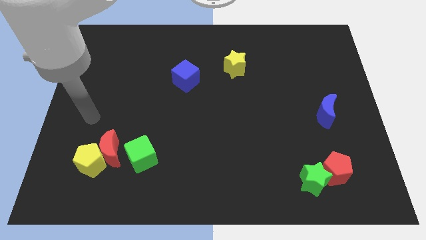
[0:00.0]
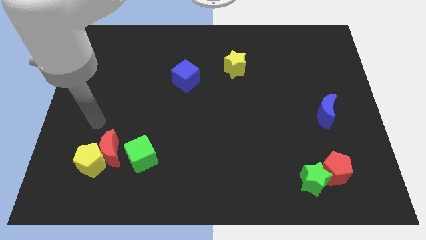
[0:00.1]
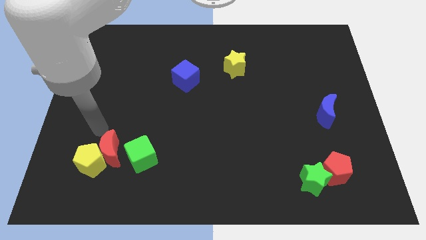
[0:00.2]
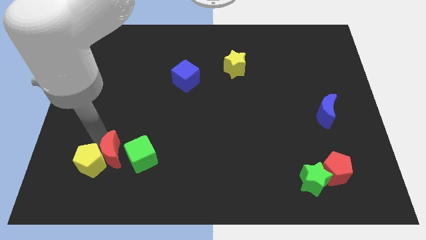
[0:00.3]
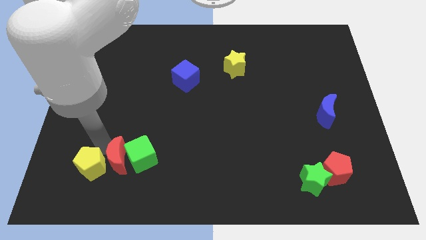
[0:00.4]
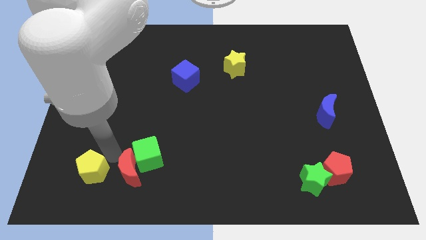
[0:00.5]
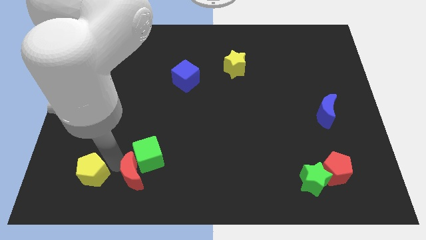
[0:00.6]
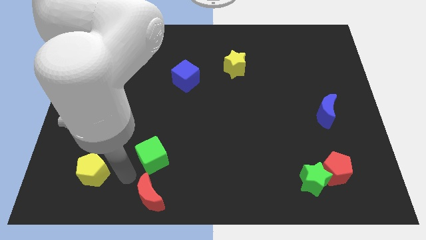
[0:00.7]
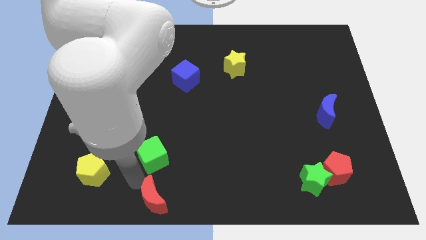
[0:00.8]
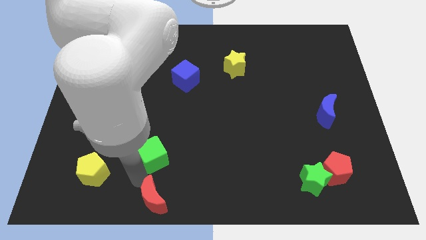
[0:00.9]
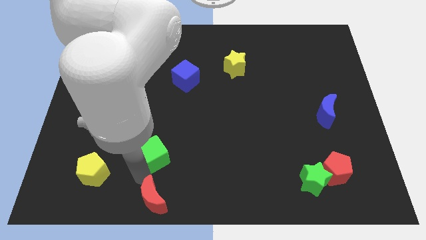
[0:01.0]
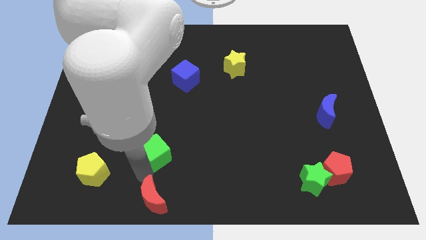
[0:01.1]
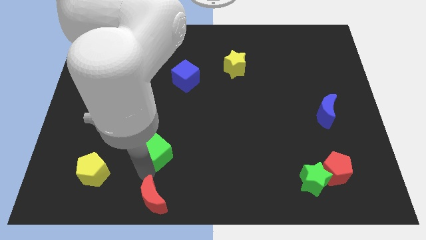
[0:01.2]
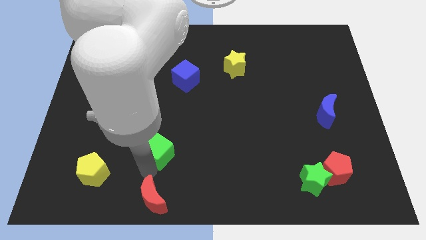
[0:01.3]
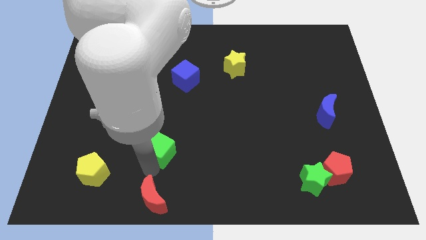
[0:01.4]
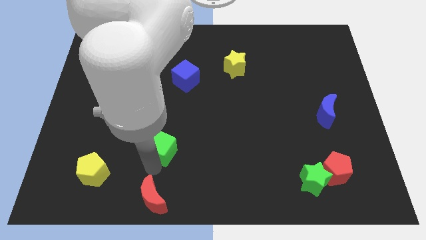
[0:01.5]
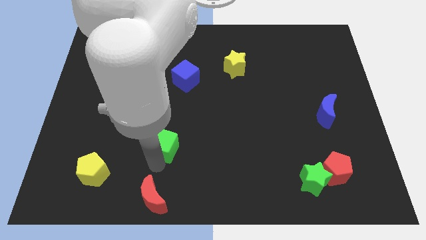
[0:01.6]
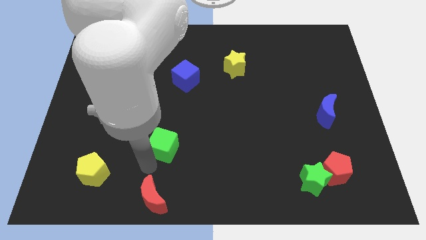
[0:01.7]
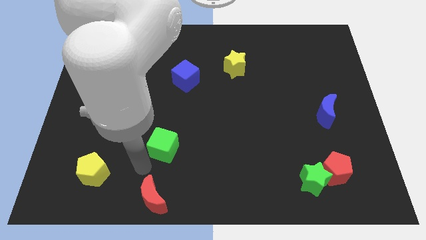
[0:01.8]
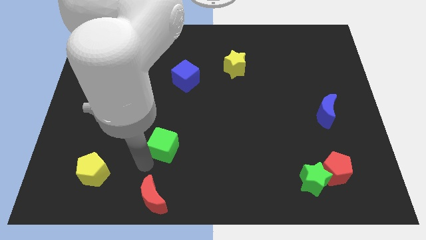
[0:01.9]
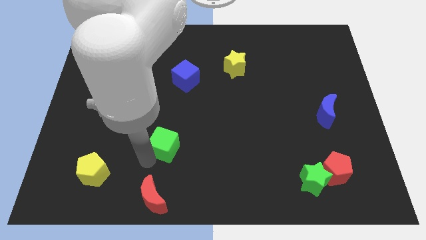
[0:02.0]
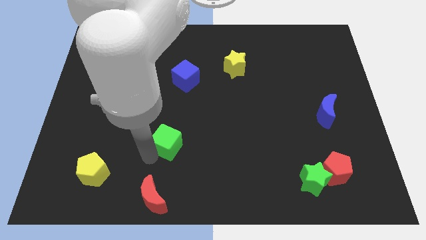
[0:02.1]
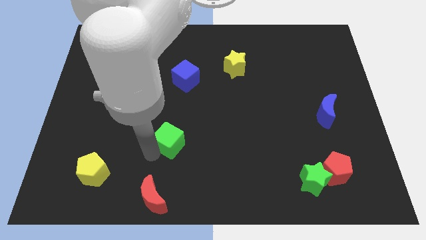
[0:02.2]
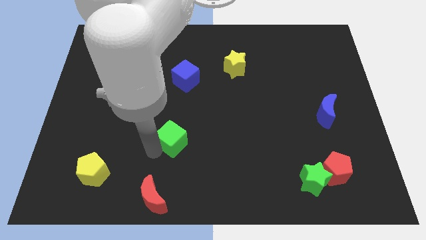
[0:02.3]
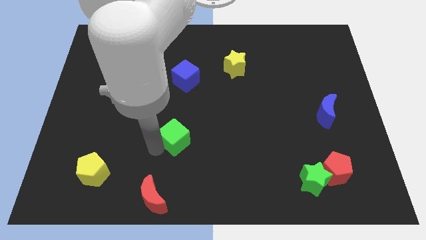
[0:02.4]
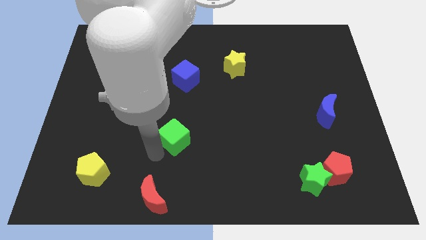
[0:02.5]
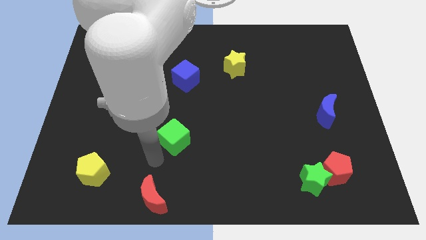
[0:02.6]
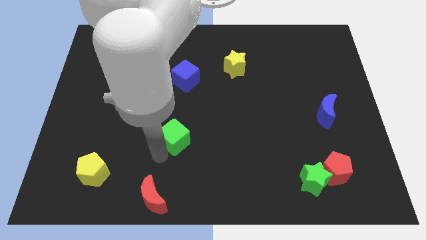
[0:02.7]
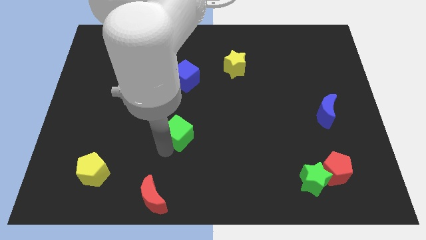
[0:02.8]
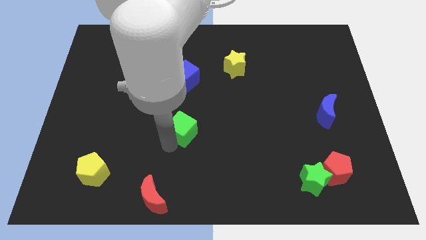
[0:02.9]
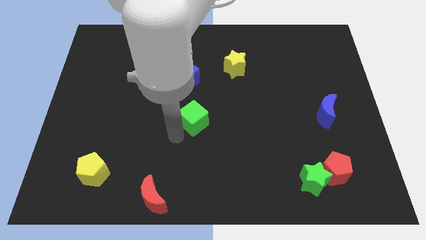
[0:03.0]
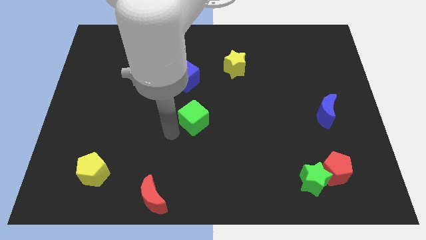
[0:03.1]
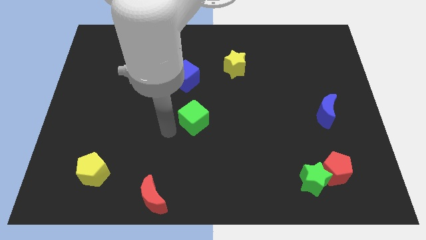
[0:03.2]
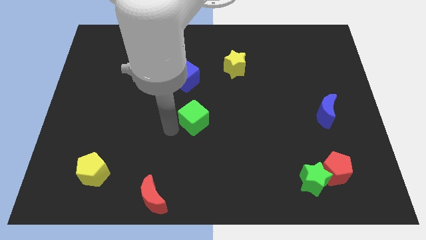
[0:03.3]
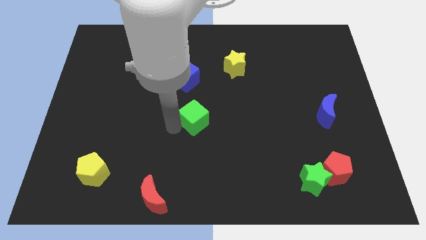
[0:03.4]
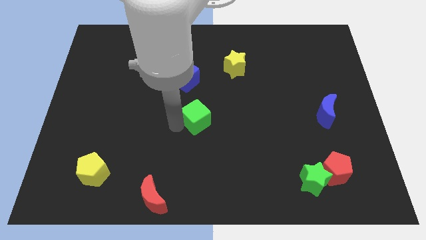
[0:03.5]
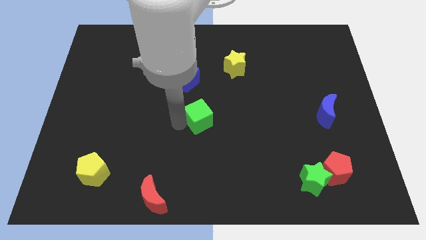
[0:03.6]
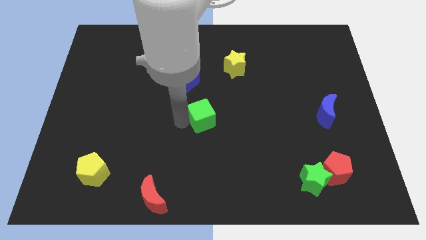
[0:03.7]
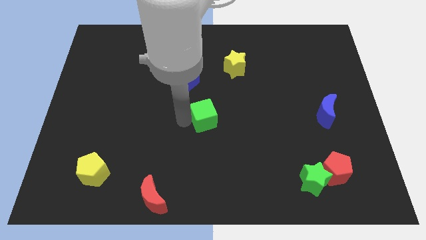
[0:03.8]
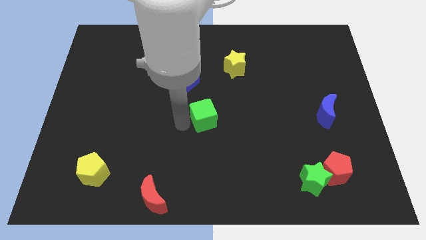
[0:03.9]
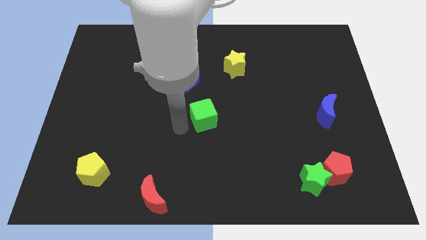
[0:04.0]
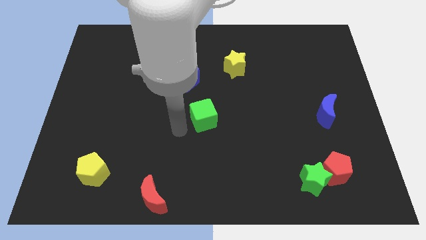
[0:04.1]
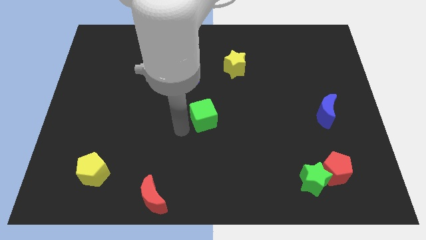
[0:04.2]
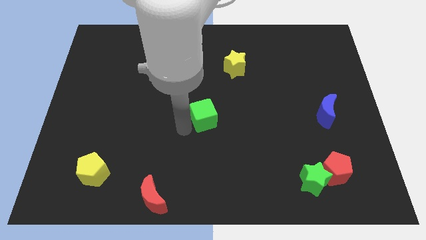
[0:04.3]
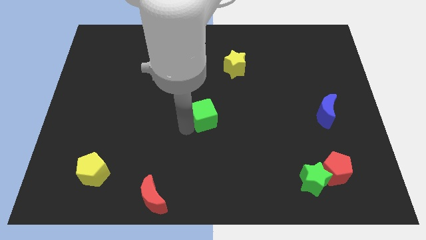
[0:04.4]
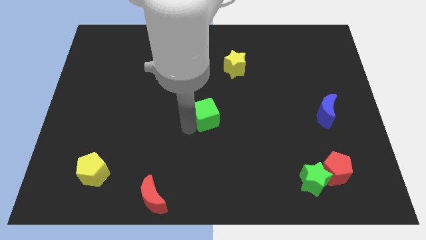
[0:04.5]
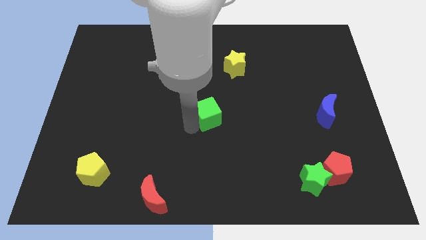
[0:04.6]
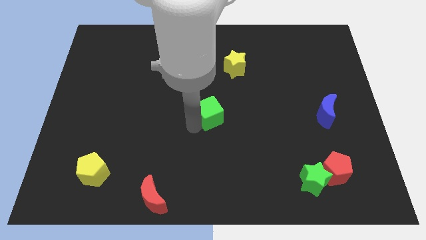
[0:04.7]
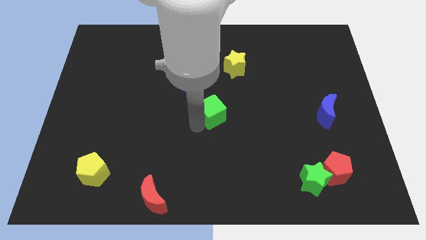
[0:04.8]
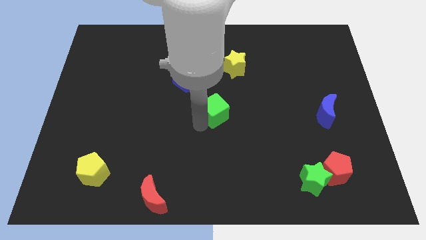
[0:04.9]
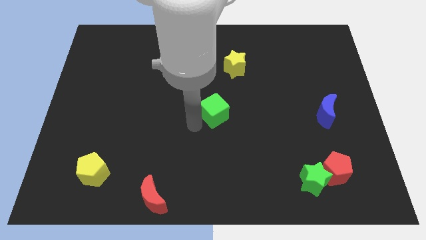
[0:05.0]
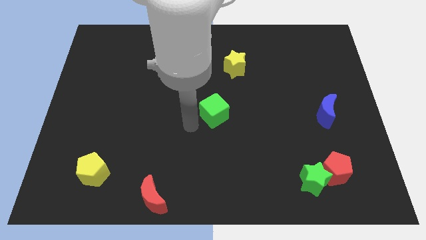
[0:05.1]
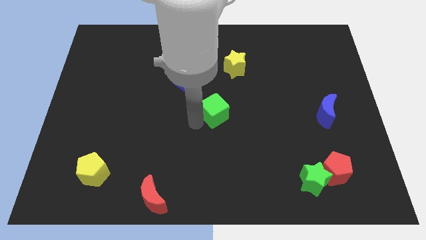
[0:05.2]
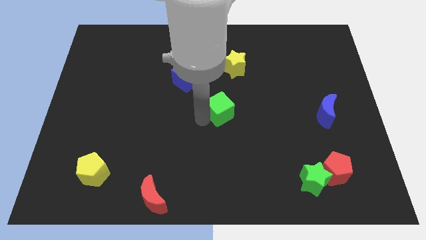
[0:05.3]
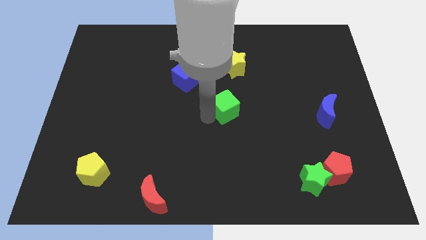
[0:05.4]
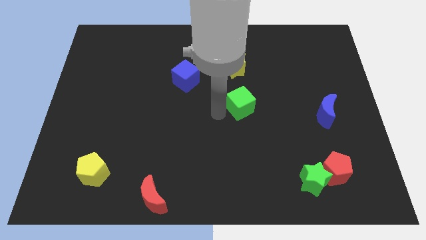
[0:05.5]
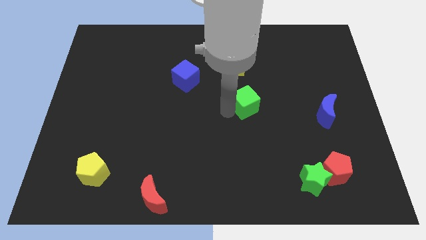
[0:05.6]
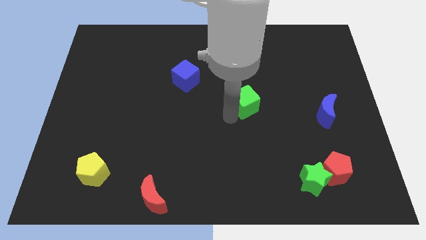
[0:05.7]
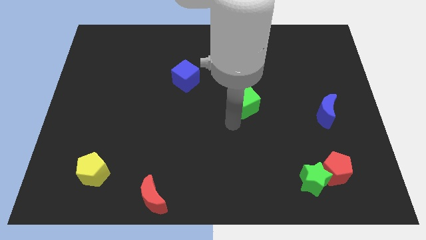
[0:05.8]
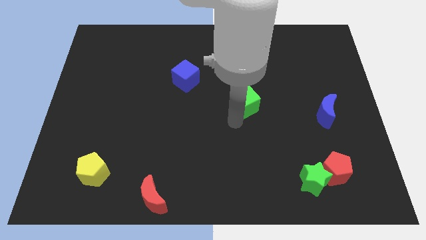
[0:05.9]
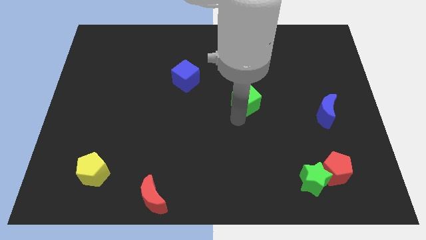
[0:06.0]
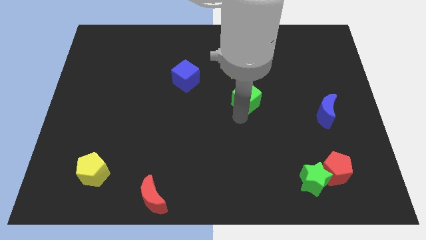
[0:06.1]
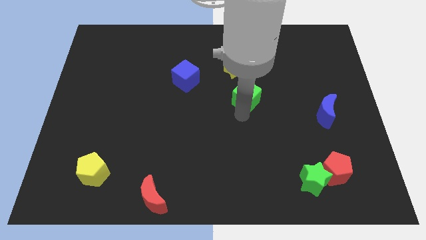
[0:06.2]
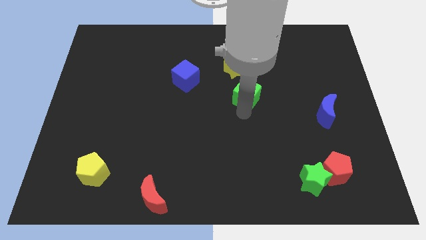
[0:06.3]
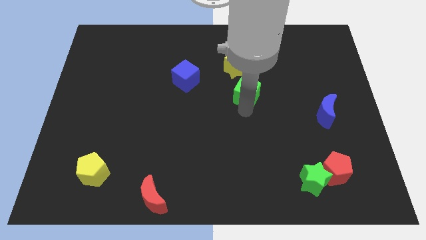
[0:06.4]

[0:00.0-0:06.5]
push the green cube to the bottom right side of the yellow star

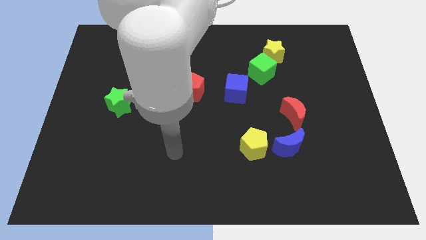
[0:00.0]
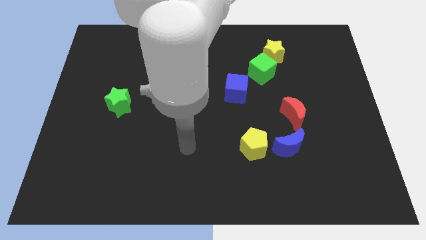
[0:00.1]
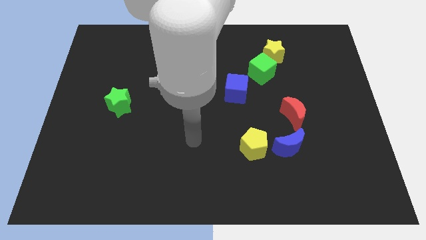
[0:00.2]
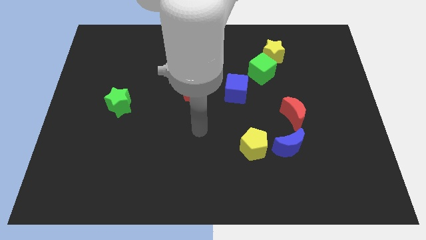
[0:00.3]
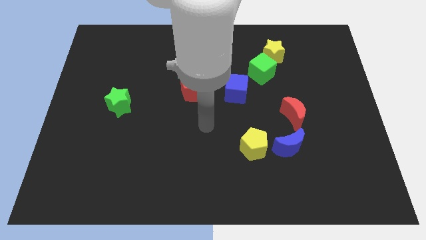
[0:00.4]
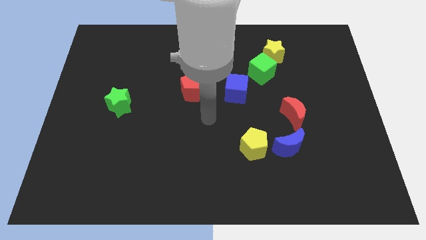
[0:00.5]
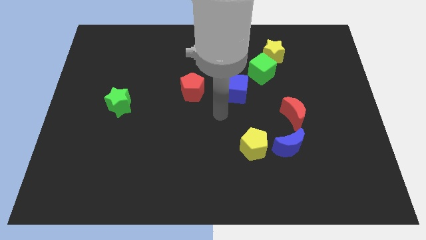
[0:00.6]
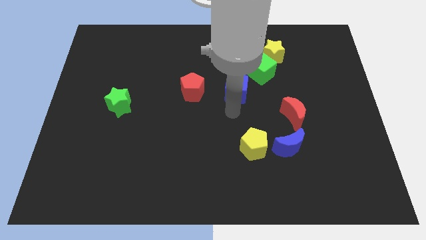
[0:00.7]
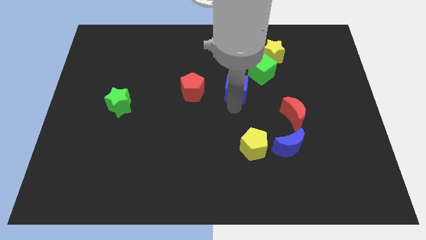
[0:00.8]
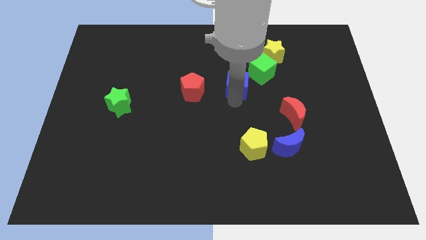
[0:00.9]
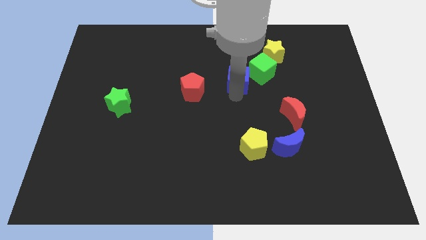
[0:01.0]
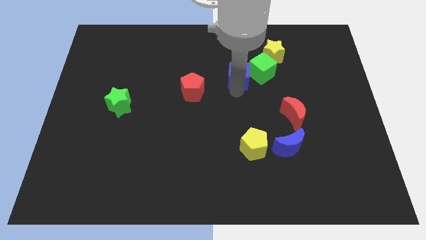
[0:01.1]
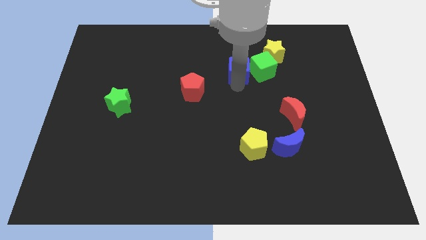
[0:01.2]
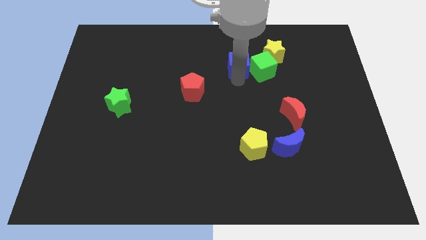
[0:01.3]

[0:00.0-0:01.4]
move the blue cube to the top left side of the green cube
